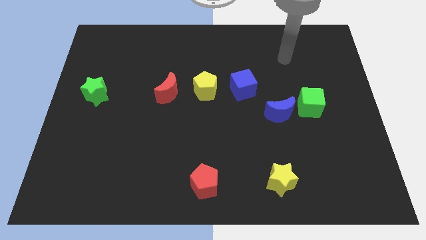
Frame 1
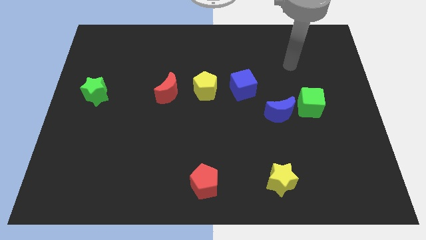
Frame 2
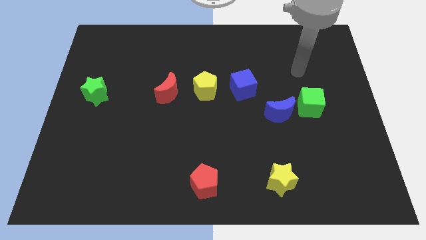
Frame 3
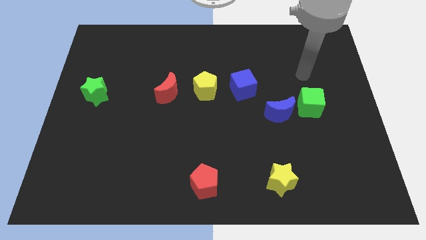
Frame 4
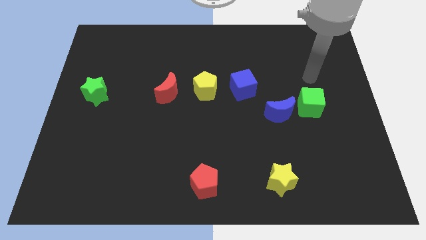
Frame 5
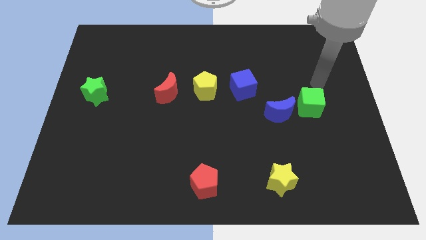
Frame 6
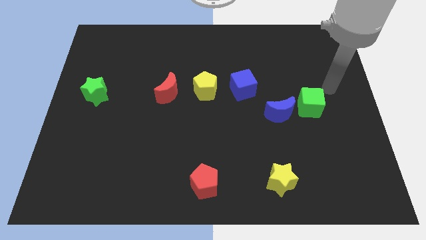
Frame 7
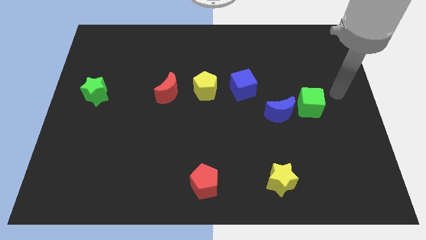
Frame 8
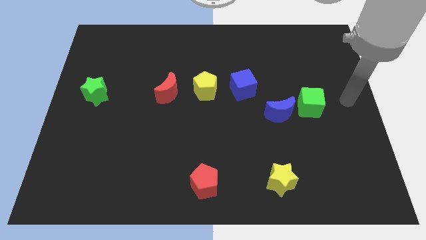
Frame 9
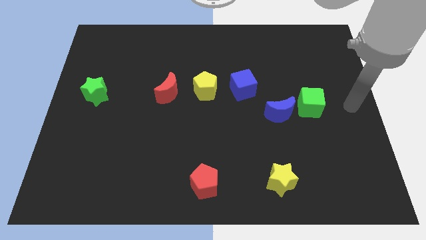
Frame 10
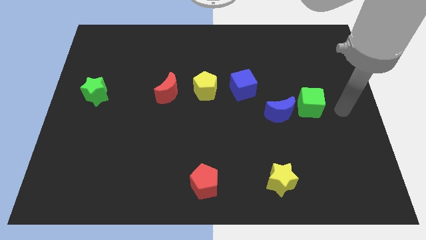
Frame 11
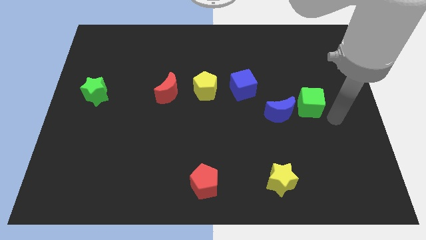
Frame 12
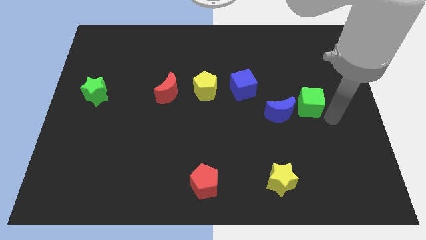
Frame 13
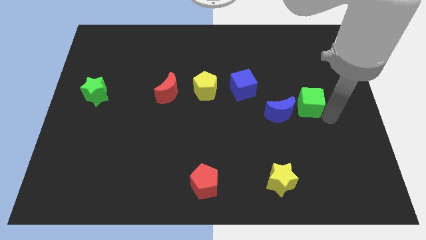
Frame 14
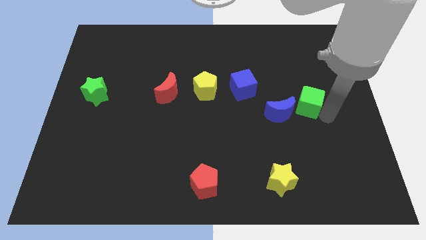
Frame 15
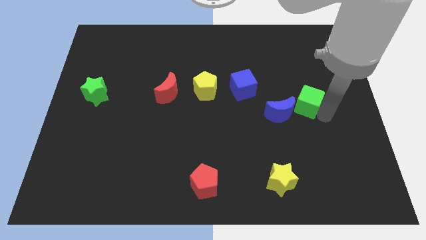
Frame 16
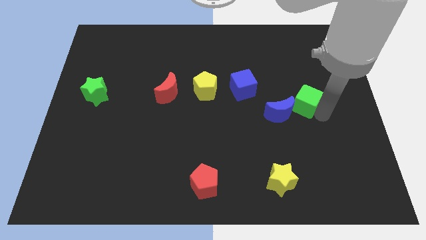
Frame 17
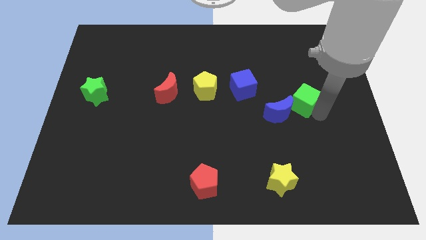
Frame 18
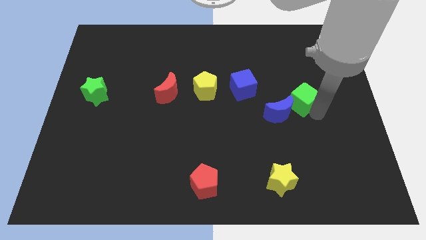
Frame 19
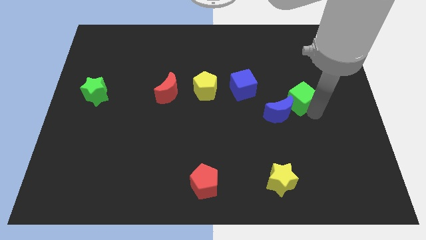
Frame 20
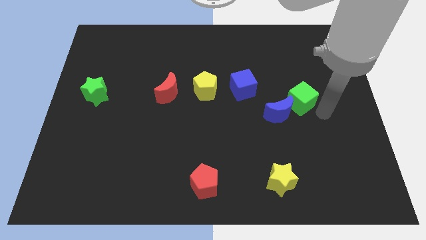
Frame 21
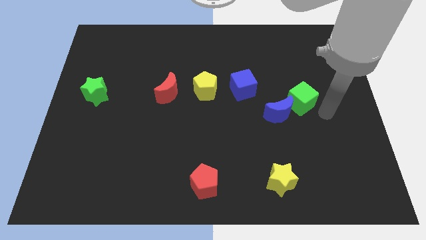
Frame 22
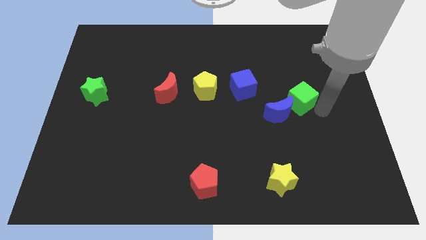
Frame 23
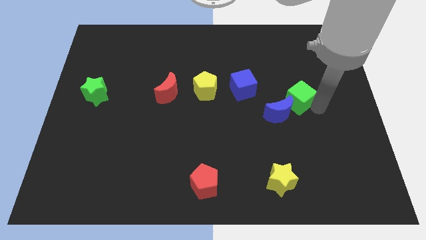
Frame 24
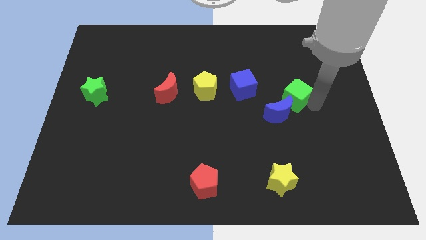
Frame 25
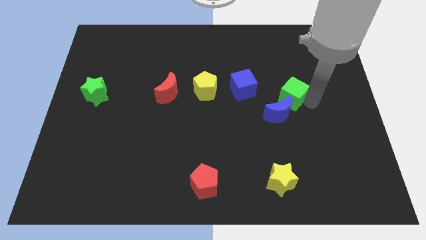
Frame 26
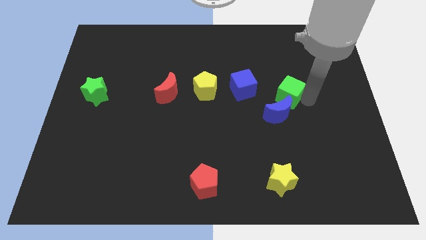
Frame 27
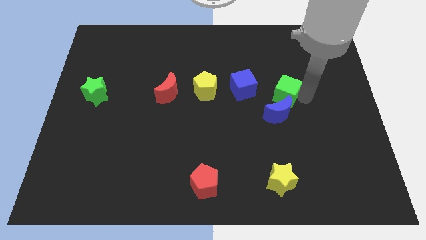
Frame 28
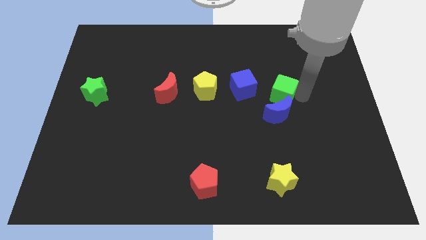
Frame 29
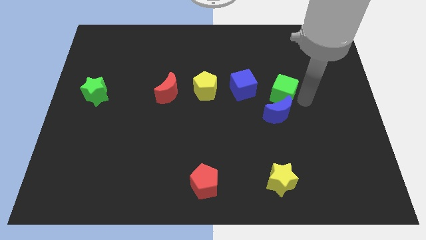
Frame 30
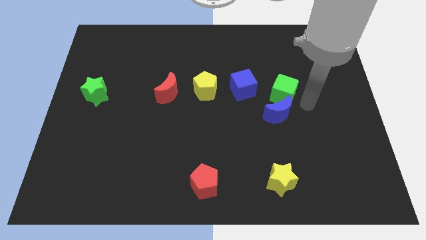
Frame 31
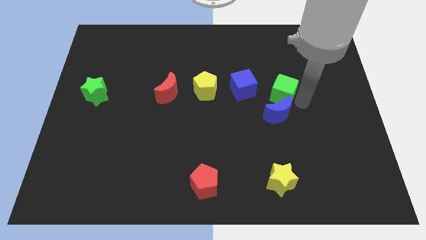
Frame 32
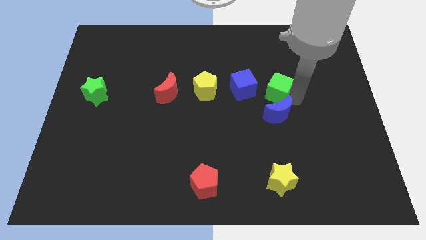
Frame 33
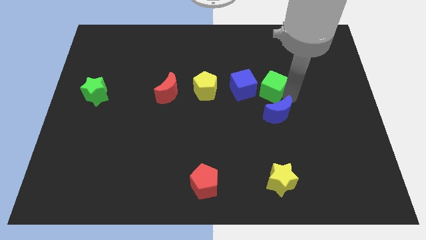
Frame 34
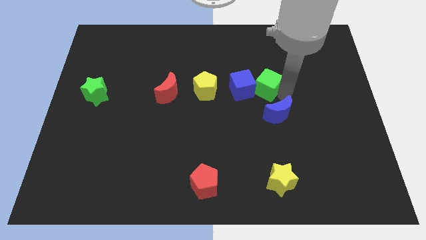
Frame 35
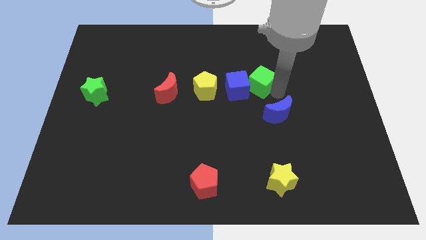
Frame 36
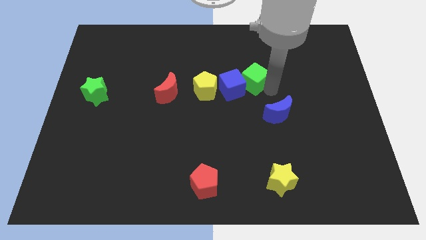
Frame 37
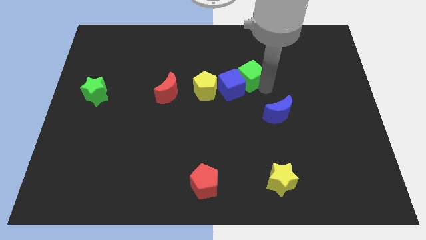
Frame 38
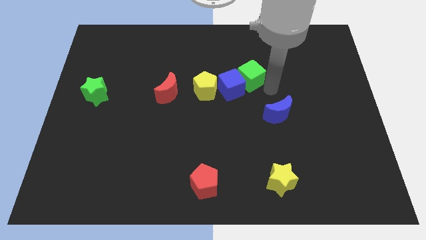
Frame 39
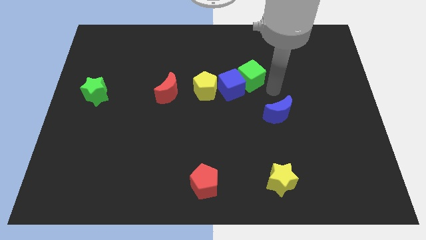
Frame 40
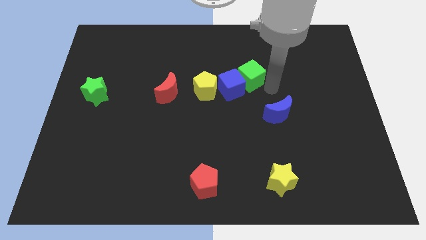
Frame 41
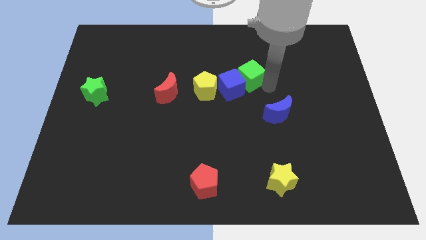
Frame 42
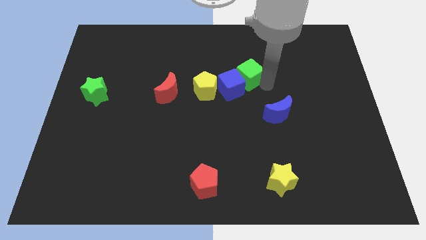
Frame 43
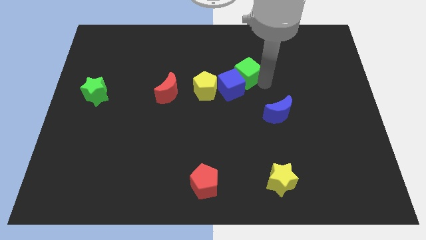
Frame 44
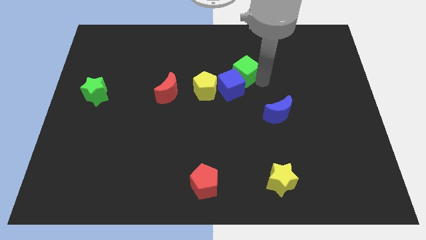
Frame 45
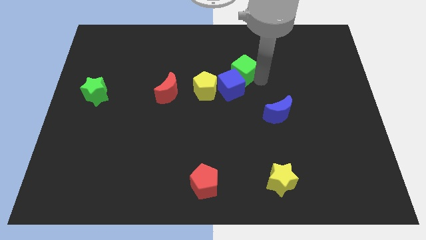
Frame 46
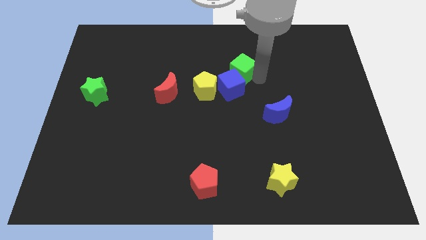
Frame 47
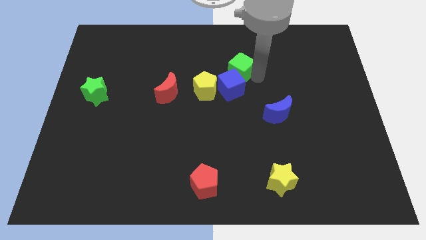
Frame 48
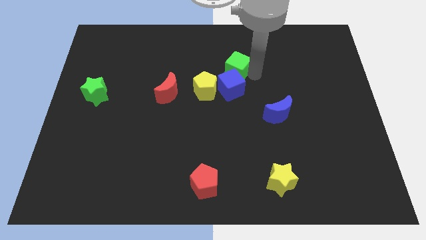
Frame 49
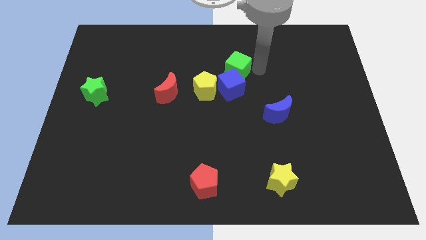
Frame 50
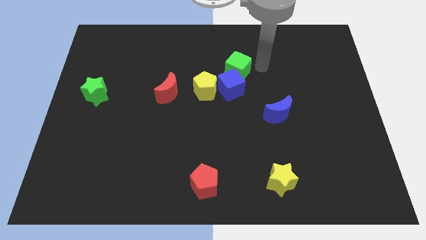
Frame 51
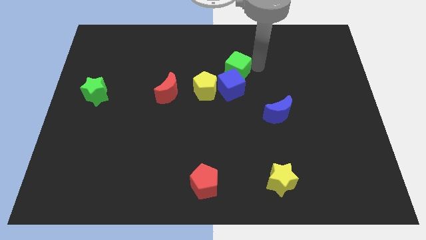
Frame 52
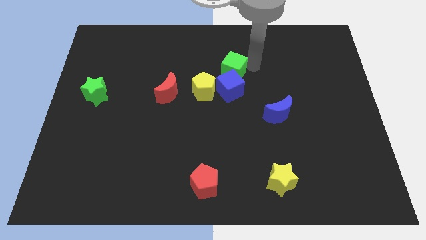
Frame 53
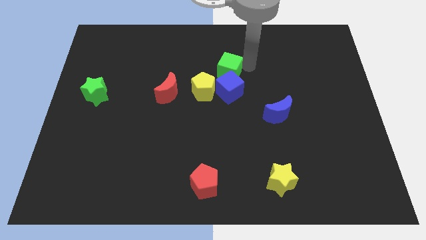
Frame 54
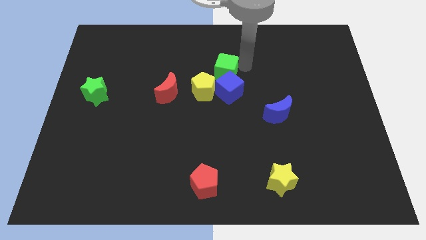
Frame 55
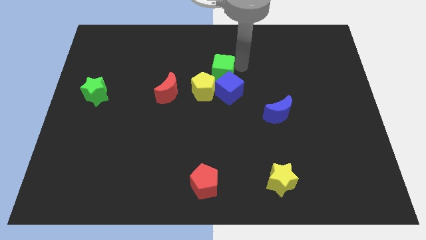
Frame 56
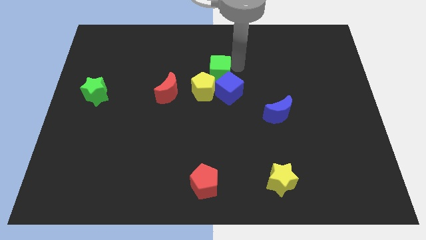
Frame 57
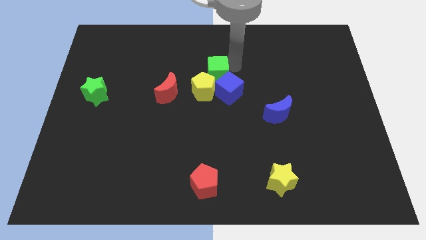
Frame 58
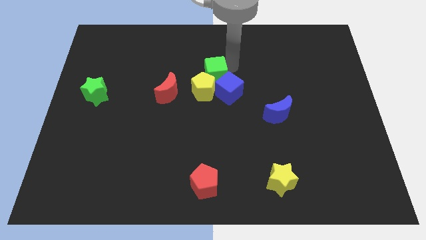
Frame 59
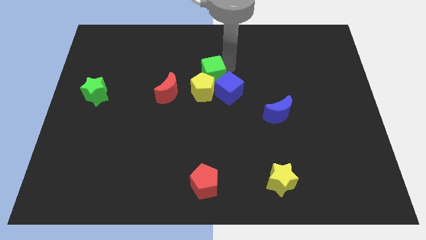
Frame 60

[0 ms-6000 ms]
slide the green cube diagonally up and to the right of the red moon

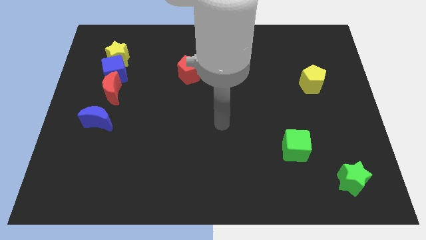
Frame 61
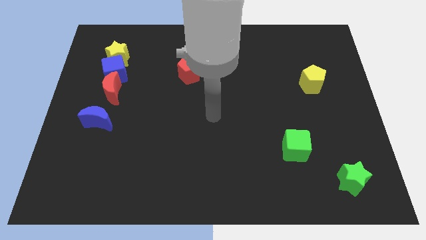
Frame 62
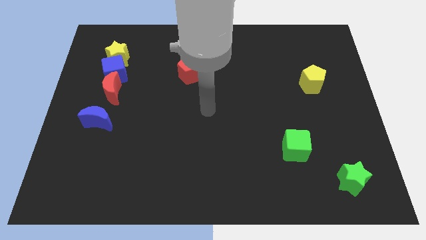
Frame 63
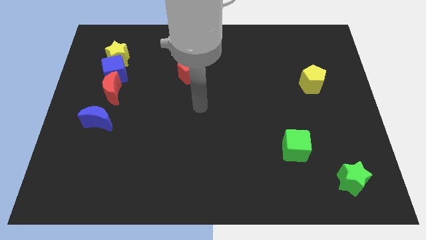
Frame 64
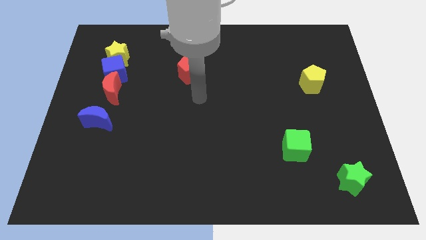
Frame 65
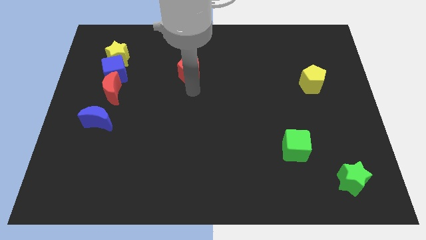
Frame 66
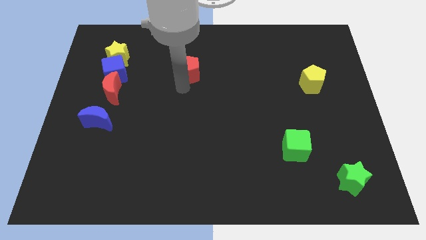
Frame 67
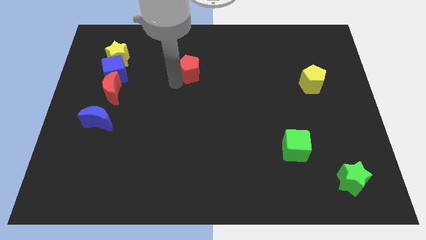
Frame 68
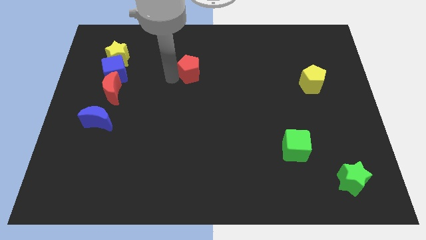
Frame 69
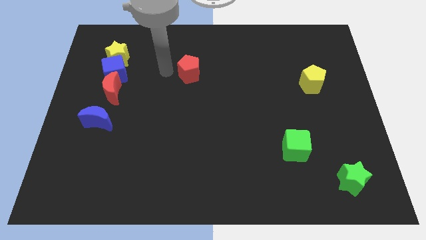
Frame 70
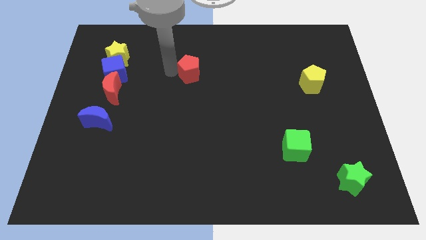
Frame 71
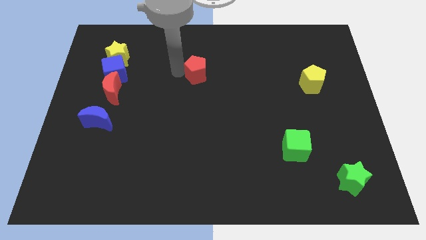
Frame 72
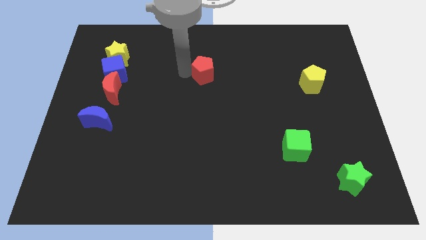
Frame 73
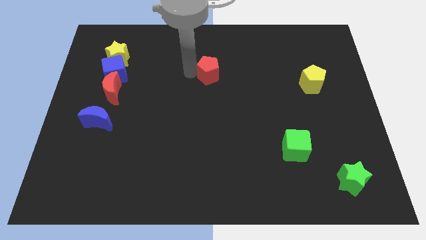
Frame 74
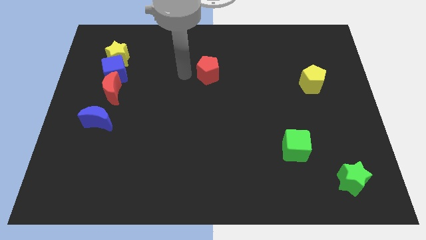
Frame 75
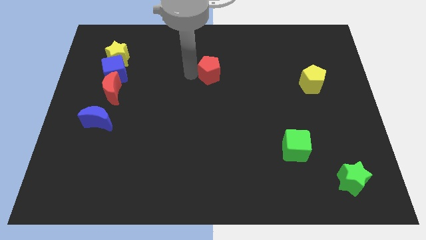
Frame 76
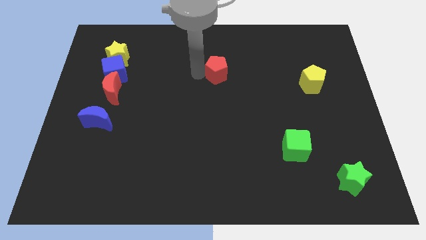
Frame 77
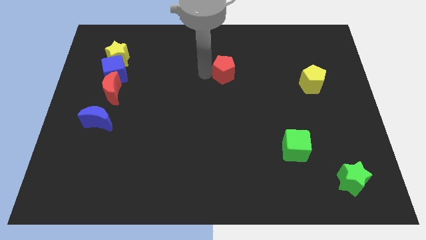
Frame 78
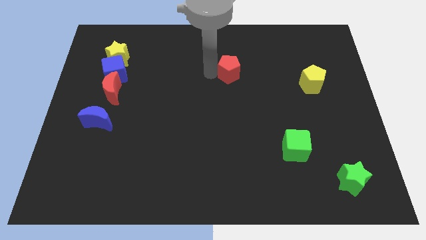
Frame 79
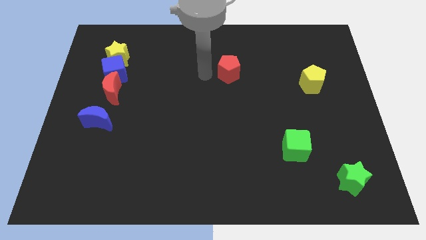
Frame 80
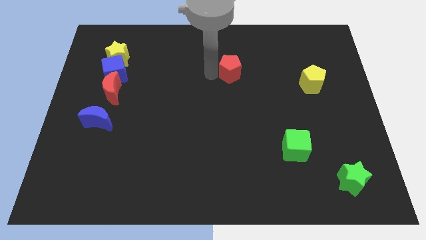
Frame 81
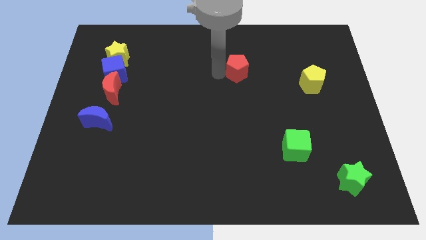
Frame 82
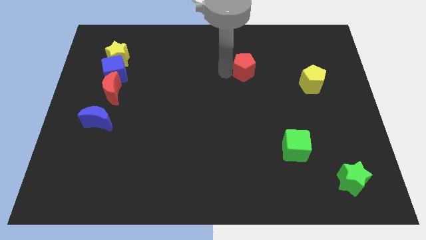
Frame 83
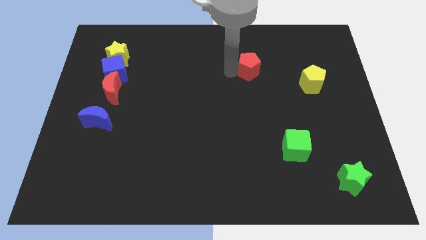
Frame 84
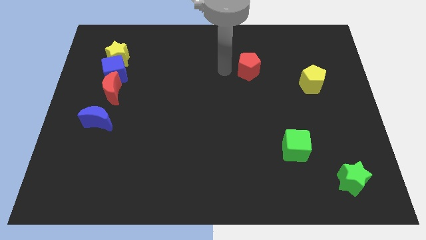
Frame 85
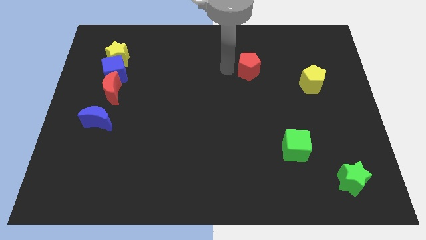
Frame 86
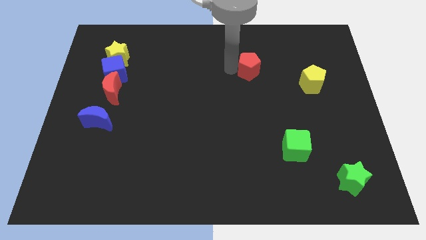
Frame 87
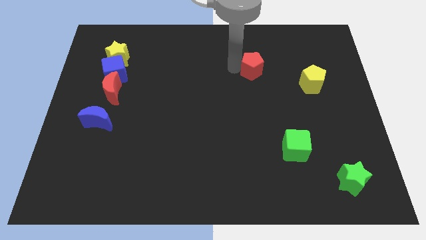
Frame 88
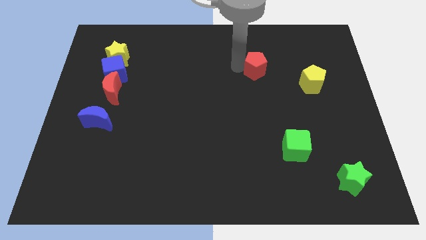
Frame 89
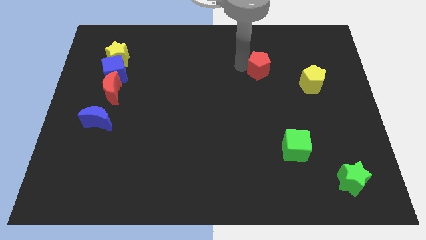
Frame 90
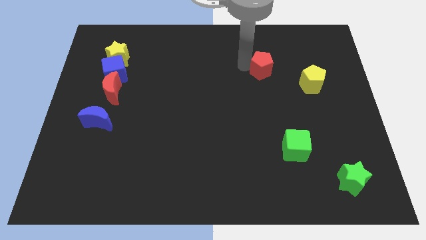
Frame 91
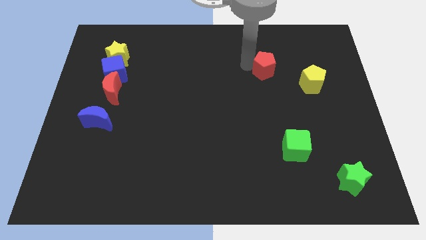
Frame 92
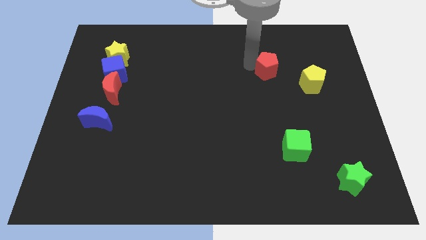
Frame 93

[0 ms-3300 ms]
slide the red pentagon to the top left of the yellow pentagon
